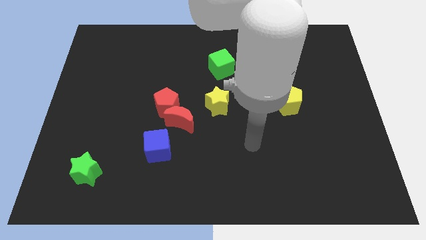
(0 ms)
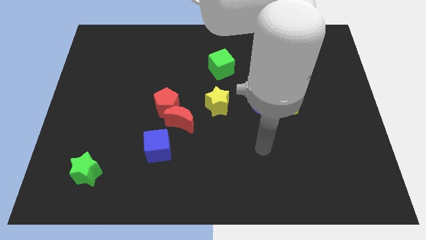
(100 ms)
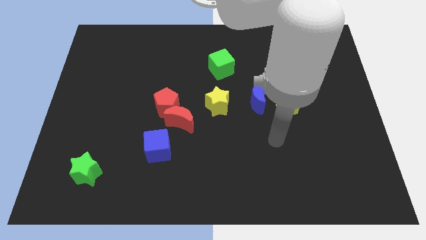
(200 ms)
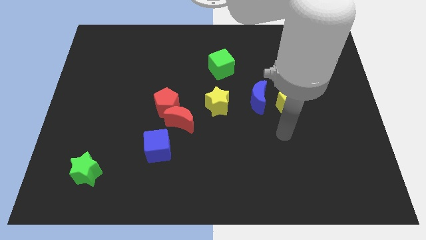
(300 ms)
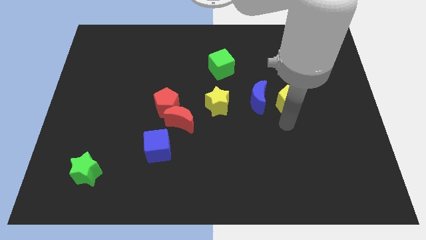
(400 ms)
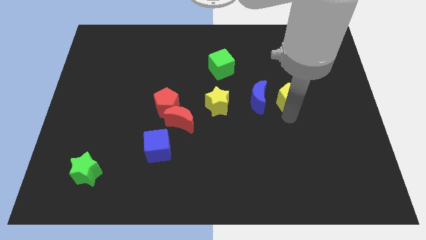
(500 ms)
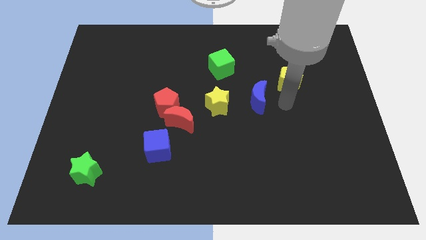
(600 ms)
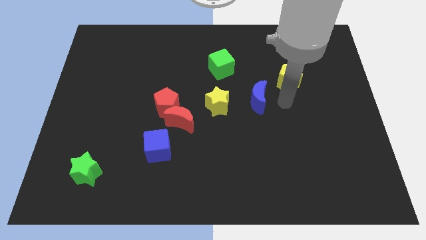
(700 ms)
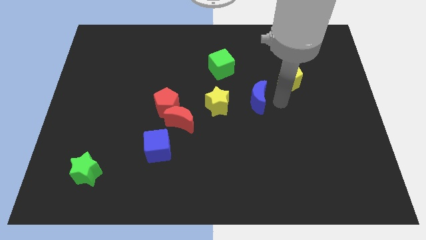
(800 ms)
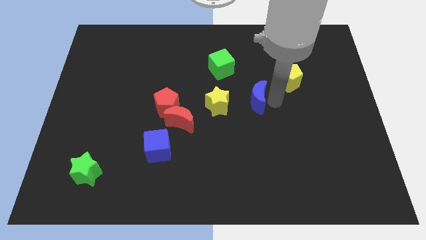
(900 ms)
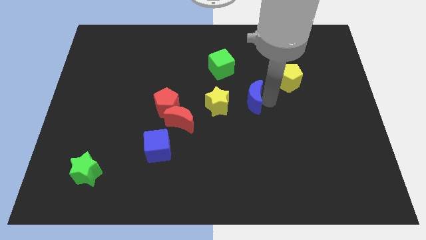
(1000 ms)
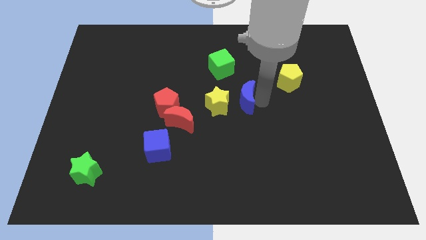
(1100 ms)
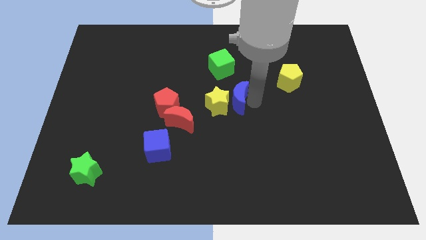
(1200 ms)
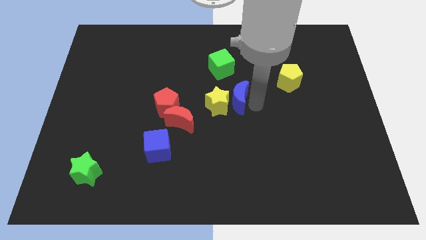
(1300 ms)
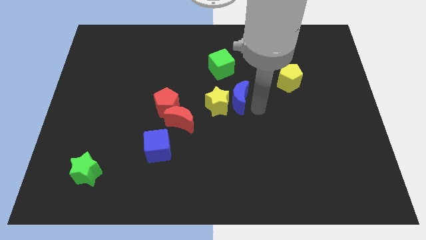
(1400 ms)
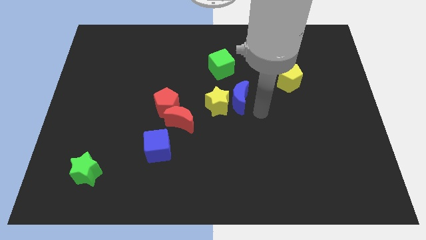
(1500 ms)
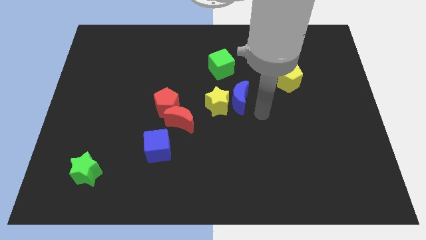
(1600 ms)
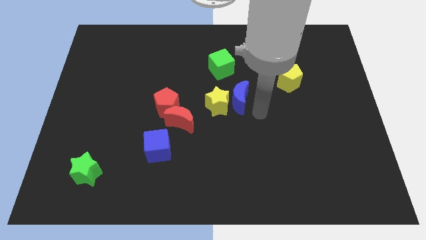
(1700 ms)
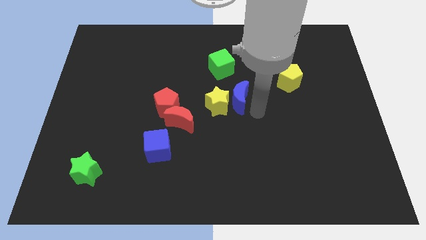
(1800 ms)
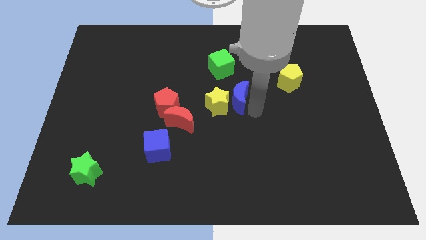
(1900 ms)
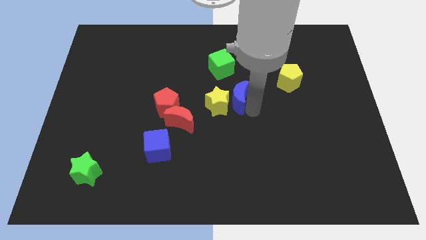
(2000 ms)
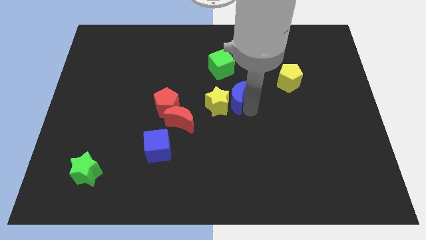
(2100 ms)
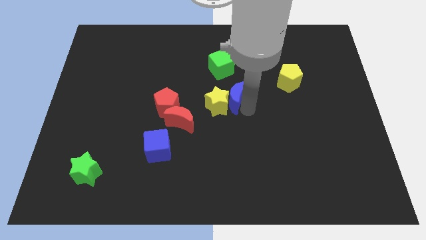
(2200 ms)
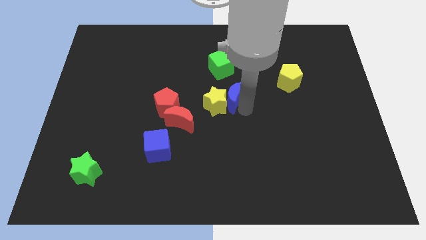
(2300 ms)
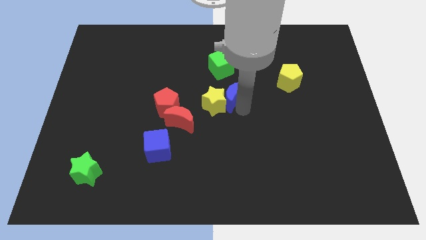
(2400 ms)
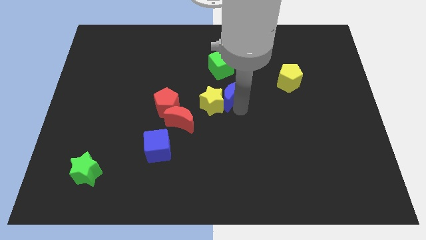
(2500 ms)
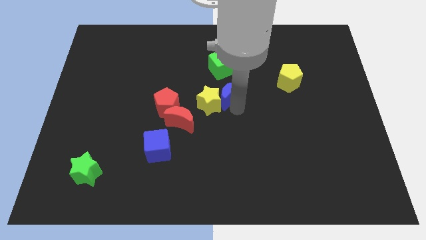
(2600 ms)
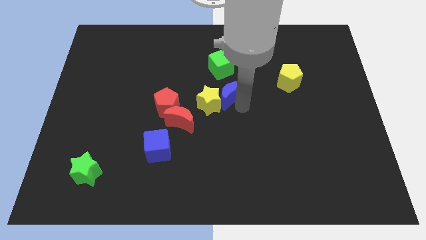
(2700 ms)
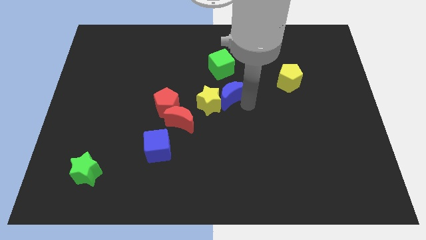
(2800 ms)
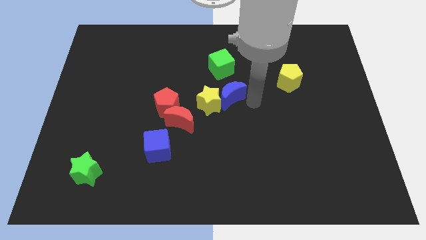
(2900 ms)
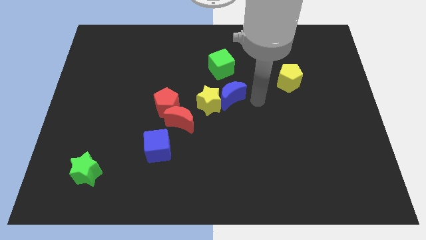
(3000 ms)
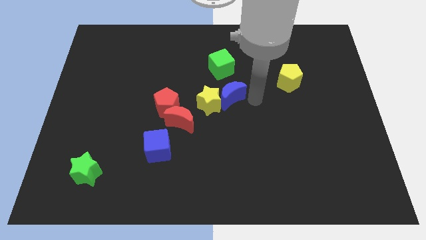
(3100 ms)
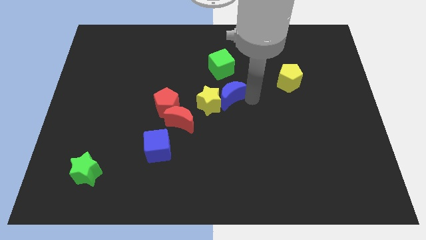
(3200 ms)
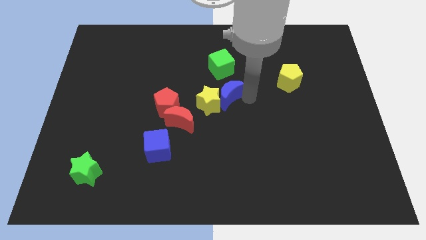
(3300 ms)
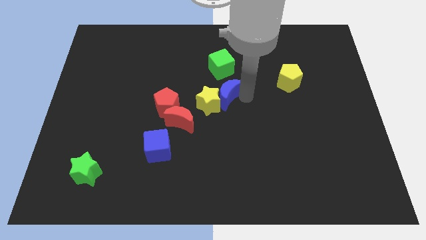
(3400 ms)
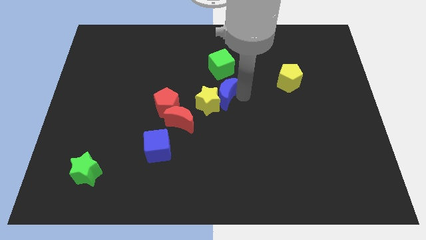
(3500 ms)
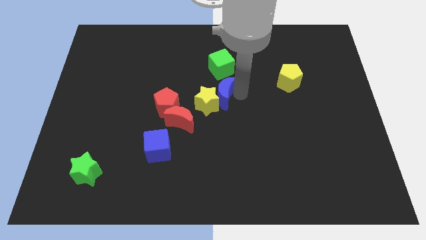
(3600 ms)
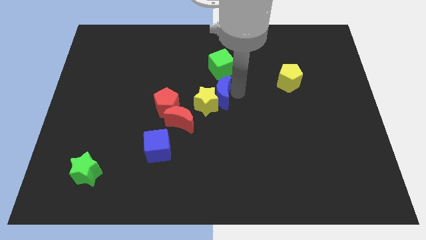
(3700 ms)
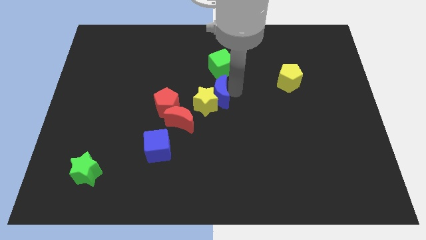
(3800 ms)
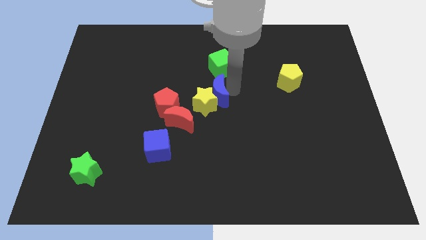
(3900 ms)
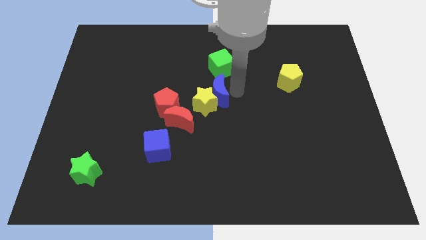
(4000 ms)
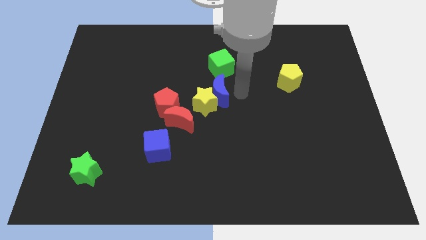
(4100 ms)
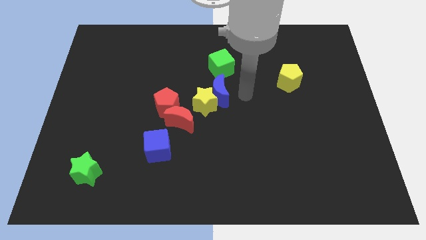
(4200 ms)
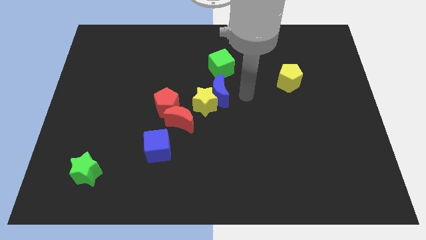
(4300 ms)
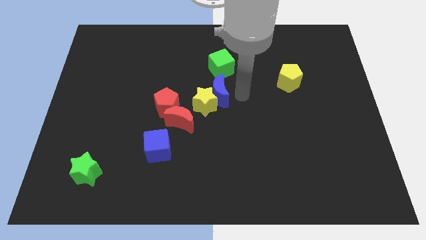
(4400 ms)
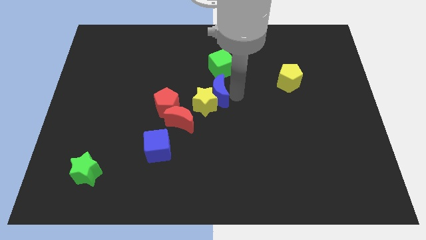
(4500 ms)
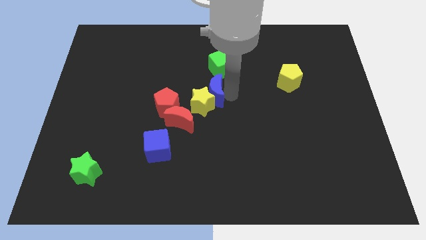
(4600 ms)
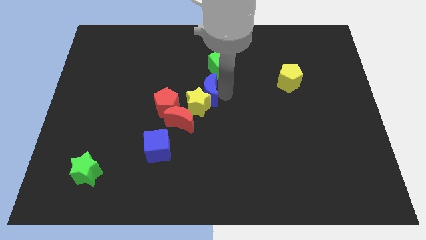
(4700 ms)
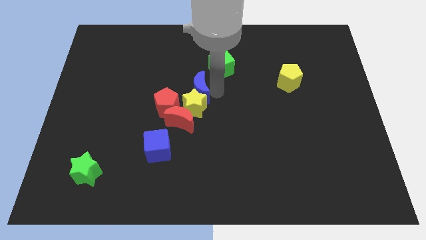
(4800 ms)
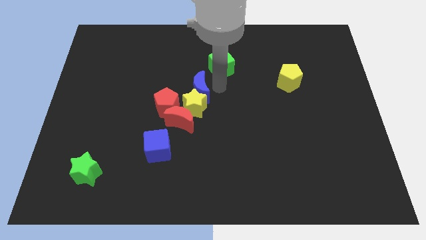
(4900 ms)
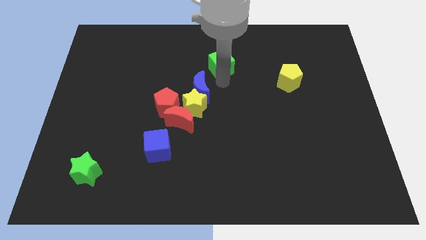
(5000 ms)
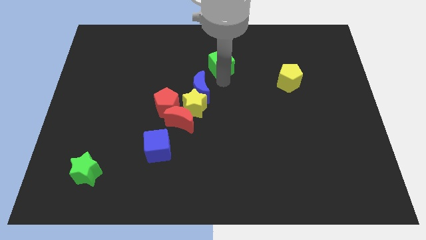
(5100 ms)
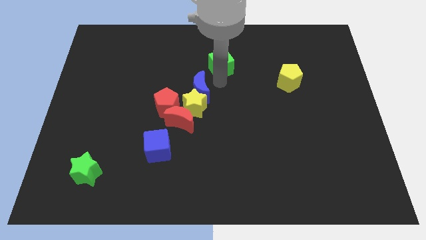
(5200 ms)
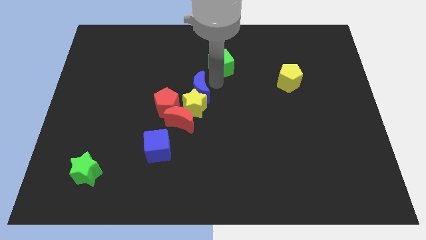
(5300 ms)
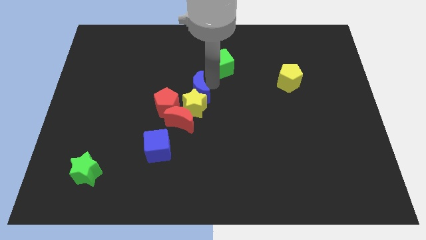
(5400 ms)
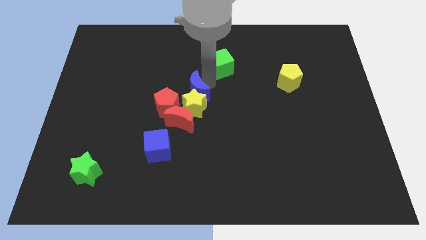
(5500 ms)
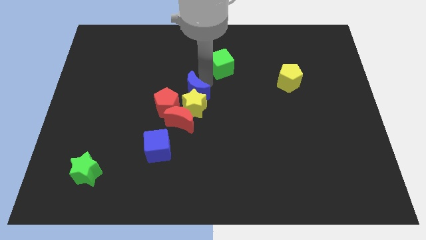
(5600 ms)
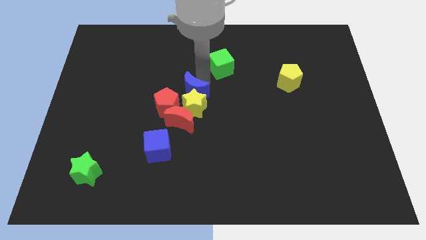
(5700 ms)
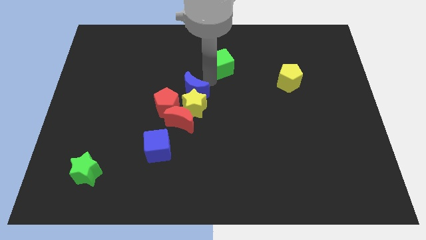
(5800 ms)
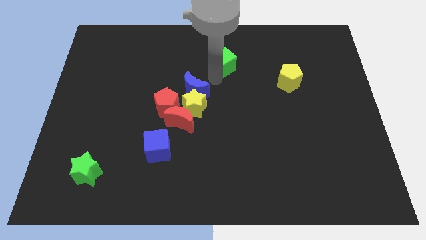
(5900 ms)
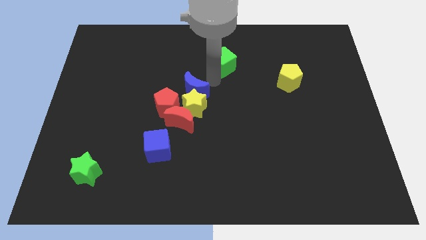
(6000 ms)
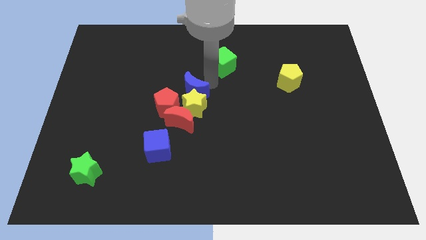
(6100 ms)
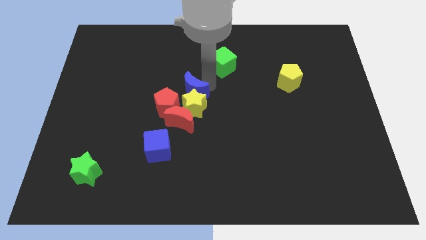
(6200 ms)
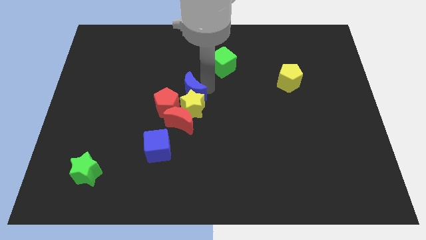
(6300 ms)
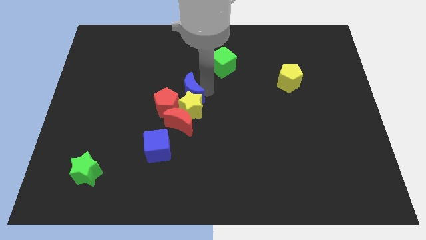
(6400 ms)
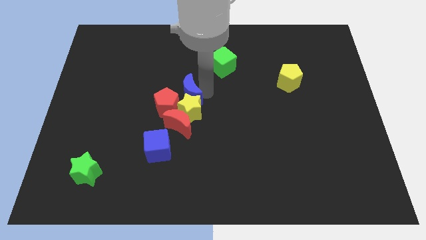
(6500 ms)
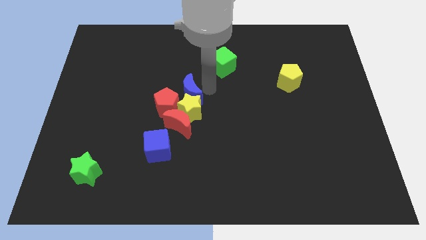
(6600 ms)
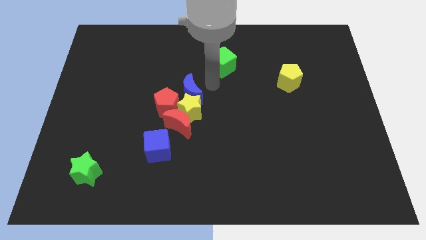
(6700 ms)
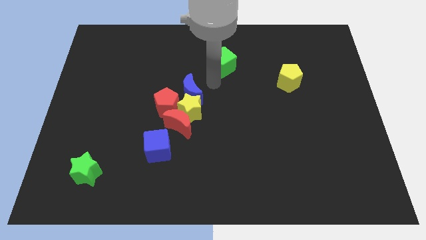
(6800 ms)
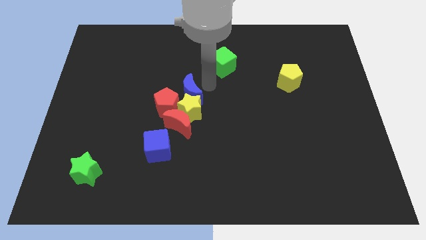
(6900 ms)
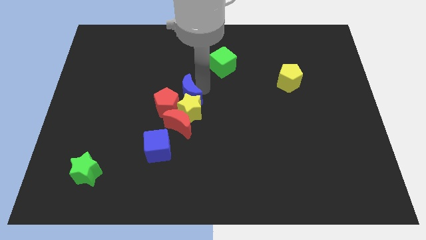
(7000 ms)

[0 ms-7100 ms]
move the blue moon to the red pentagon

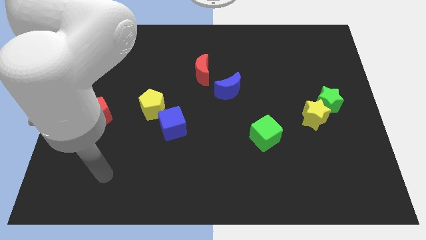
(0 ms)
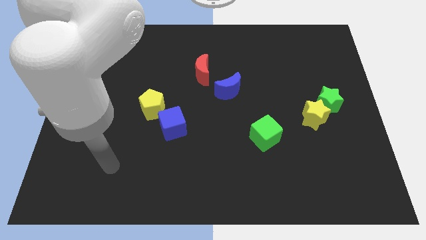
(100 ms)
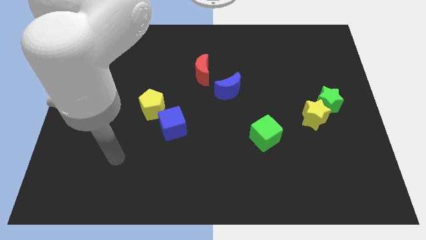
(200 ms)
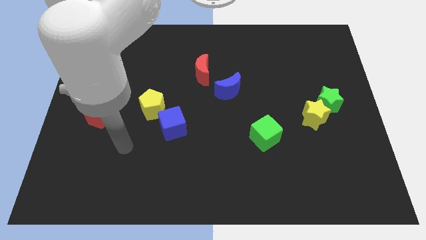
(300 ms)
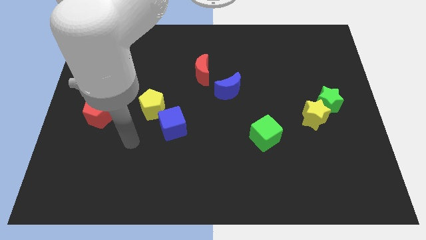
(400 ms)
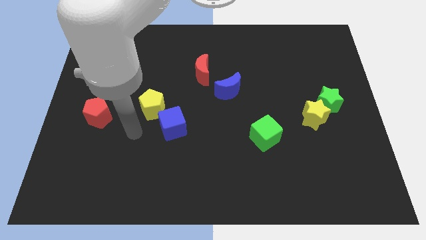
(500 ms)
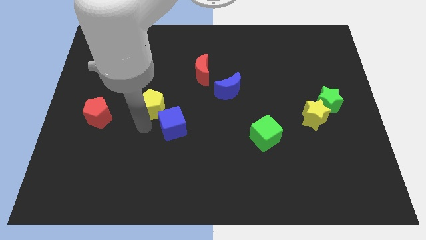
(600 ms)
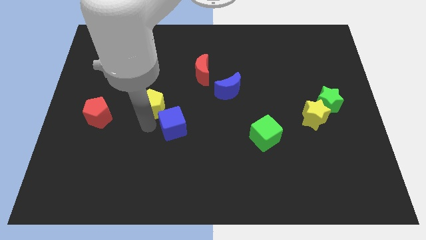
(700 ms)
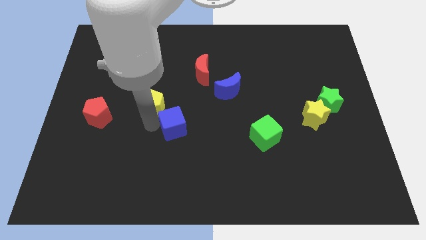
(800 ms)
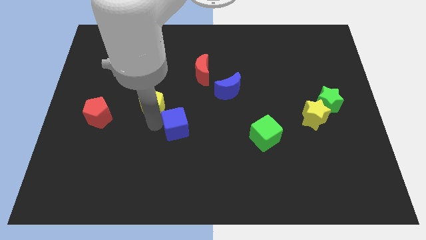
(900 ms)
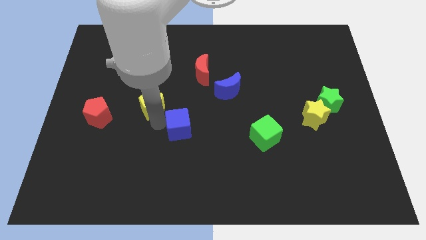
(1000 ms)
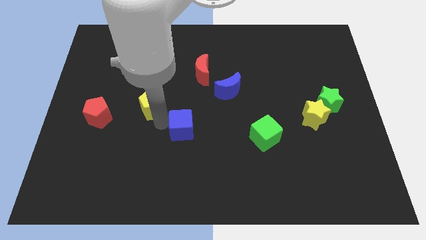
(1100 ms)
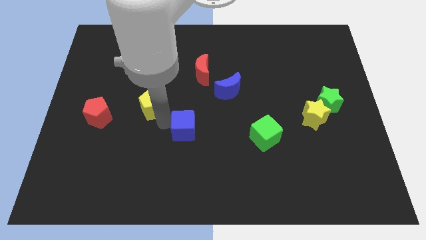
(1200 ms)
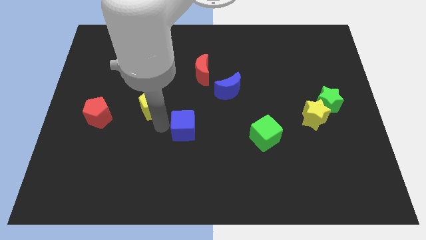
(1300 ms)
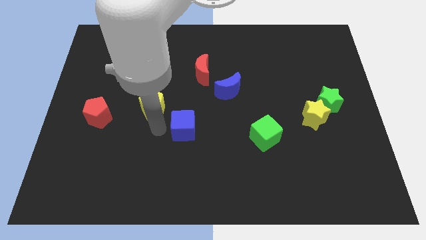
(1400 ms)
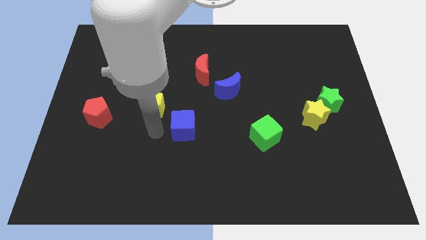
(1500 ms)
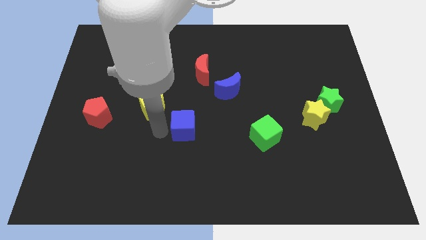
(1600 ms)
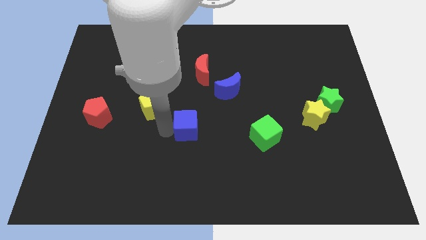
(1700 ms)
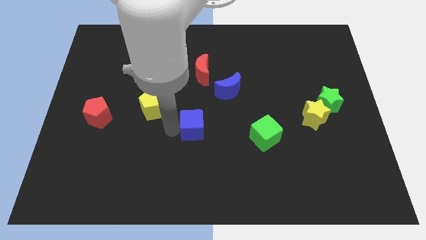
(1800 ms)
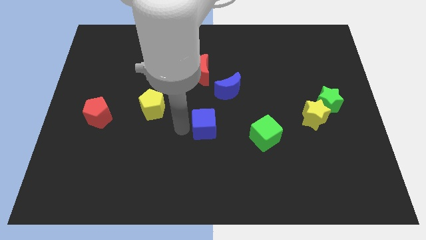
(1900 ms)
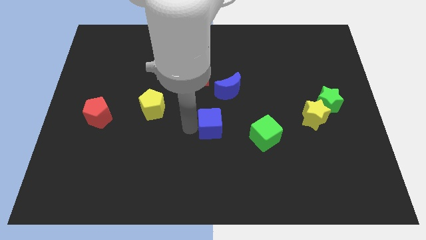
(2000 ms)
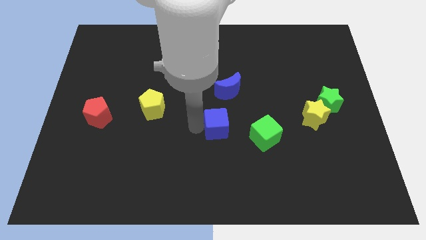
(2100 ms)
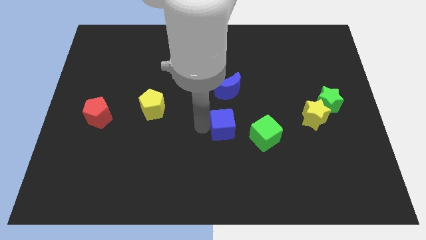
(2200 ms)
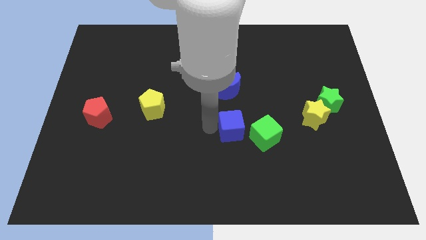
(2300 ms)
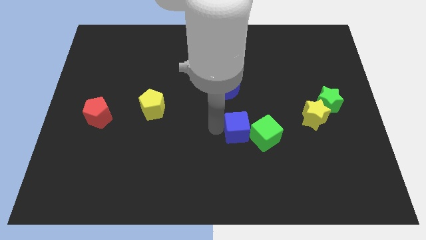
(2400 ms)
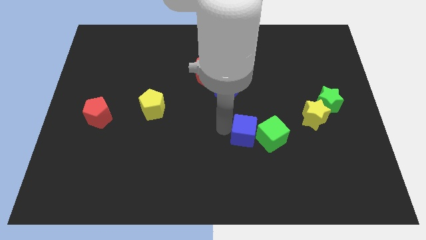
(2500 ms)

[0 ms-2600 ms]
put the blue cube to the green cube
